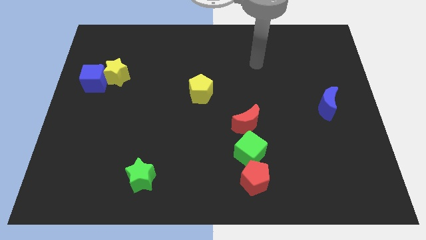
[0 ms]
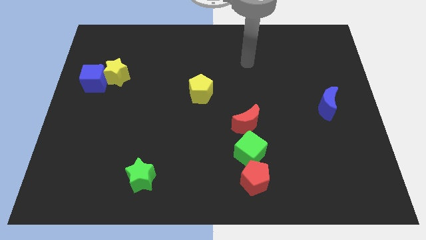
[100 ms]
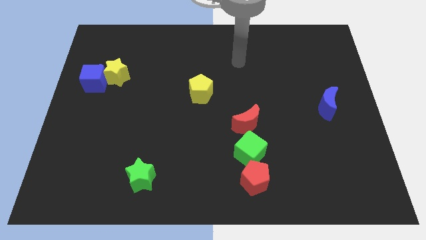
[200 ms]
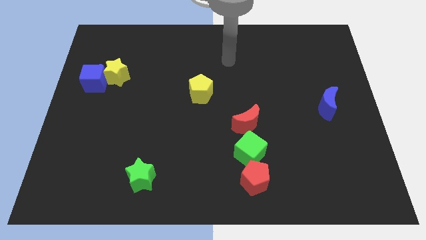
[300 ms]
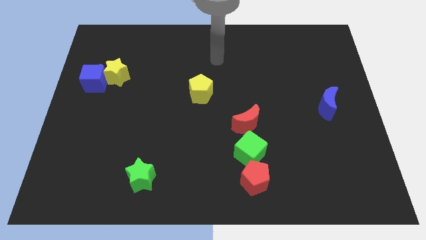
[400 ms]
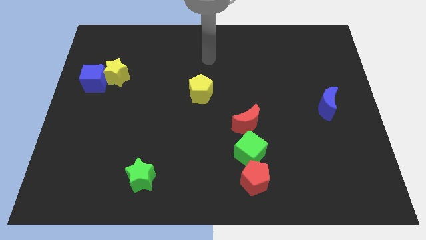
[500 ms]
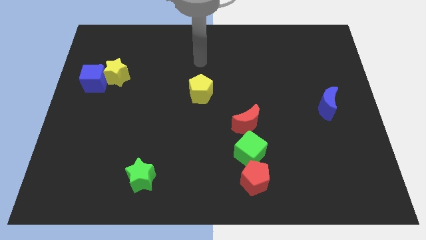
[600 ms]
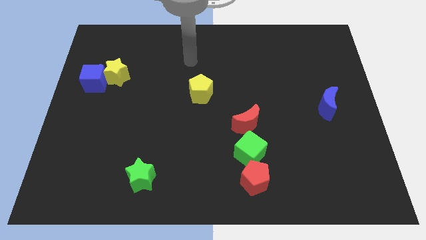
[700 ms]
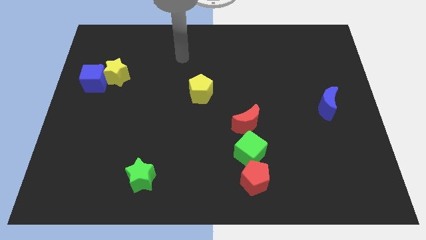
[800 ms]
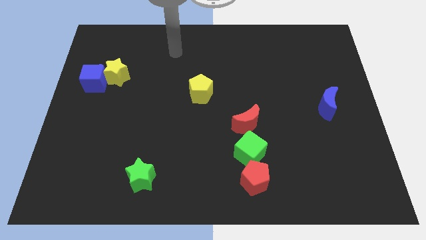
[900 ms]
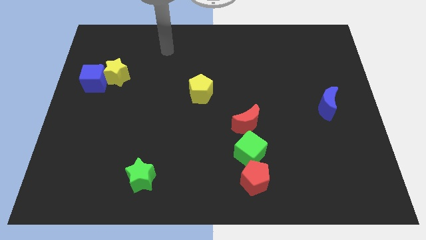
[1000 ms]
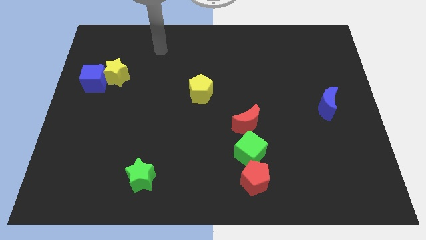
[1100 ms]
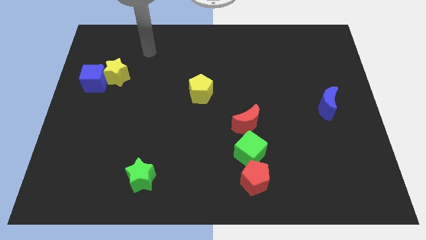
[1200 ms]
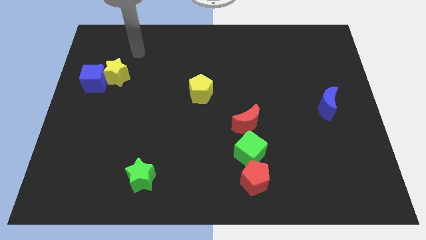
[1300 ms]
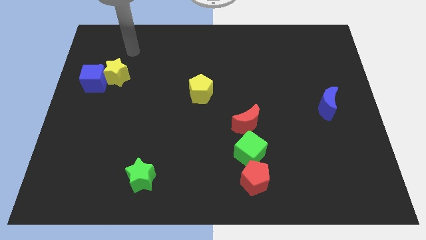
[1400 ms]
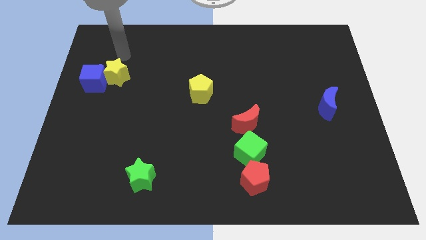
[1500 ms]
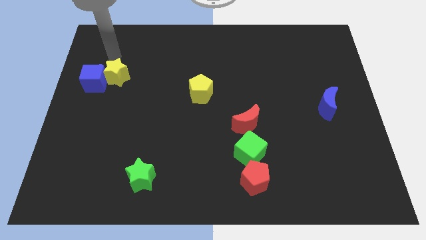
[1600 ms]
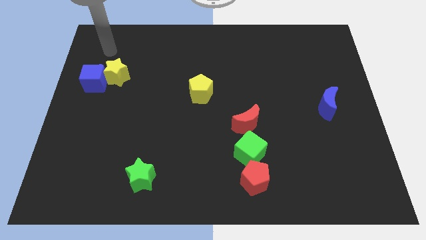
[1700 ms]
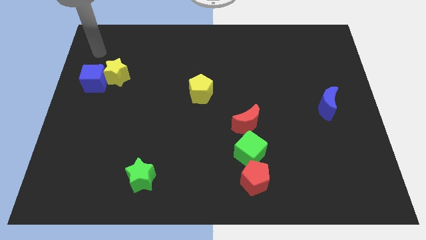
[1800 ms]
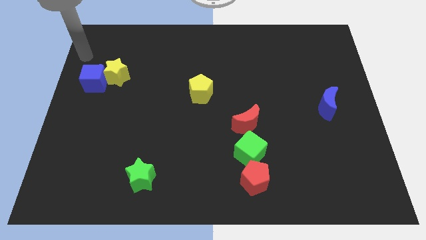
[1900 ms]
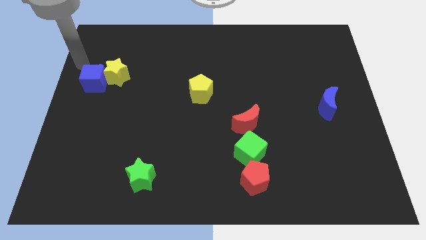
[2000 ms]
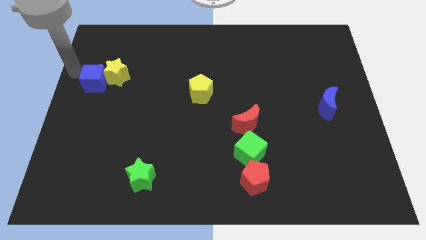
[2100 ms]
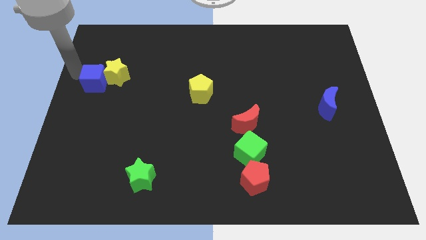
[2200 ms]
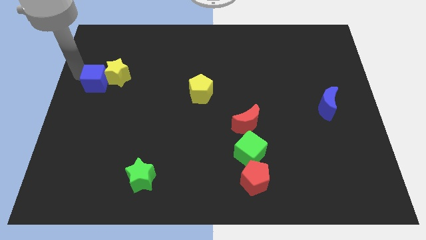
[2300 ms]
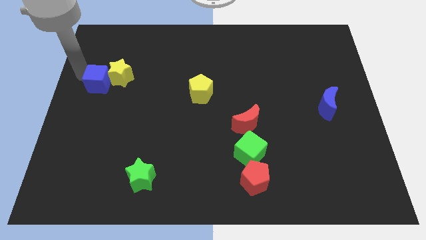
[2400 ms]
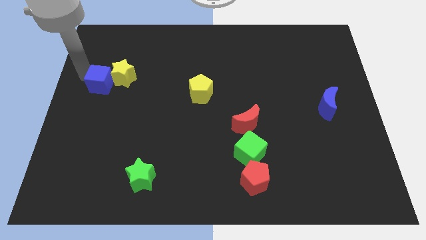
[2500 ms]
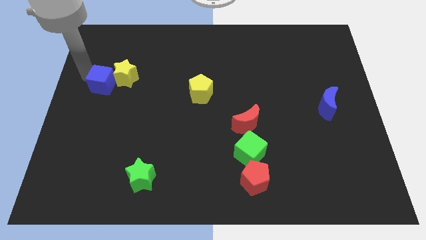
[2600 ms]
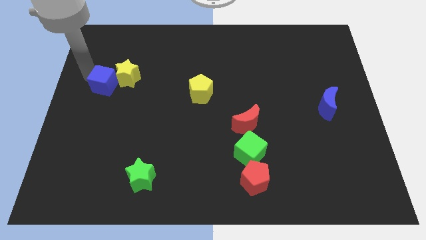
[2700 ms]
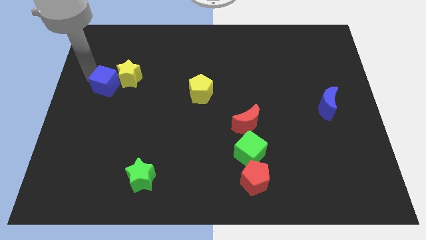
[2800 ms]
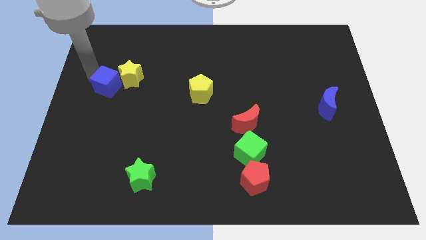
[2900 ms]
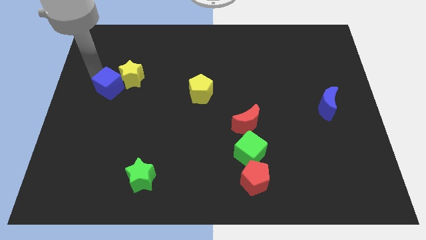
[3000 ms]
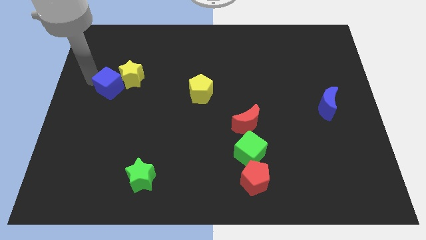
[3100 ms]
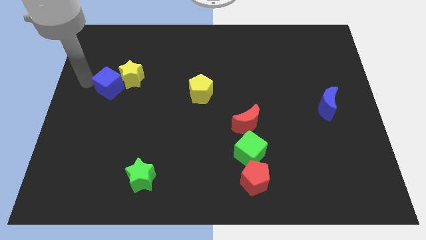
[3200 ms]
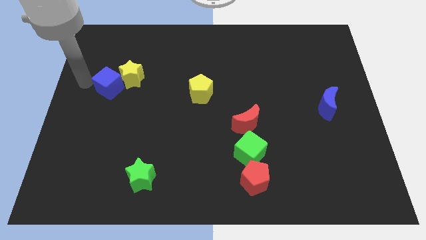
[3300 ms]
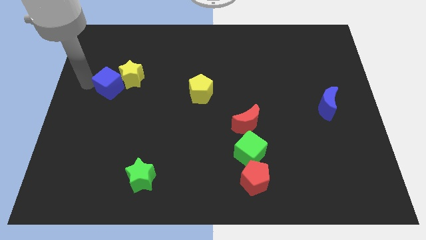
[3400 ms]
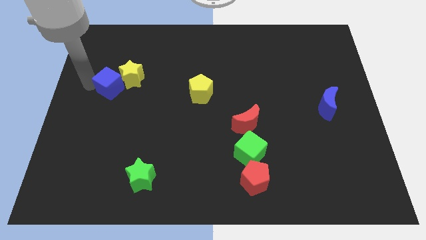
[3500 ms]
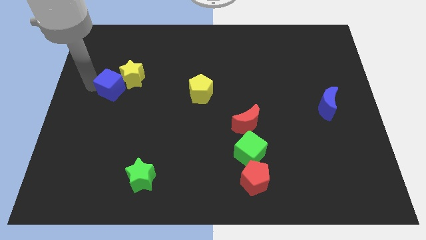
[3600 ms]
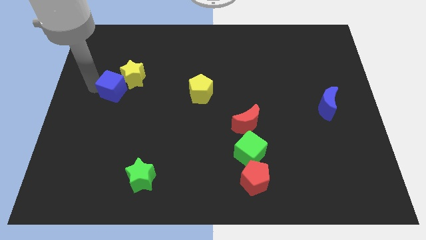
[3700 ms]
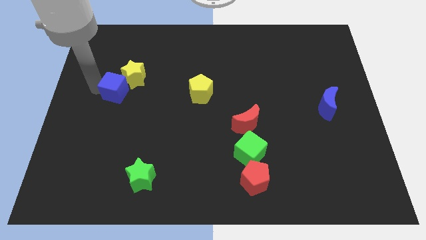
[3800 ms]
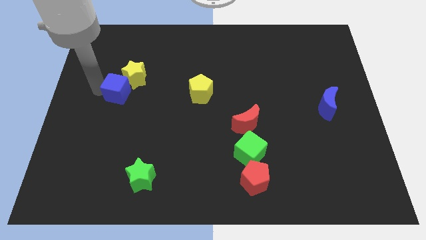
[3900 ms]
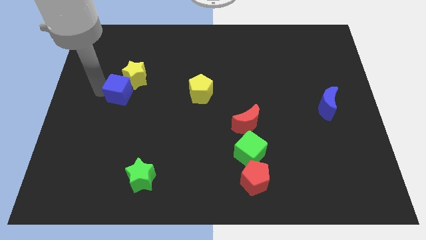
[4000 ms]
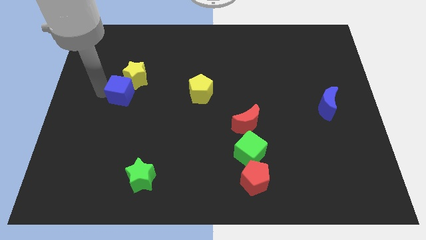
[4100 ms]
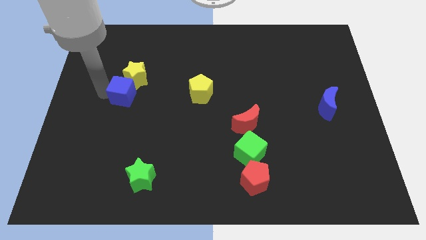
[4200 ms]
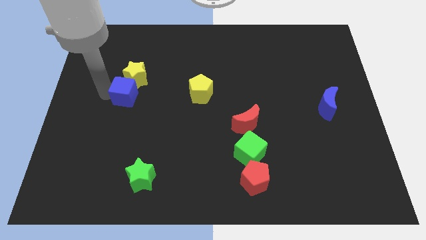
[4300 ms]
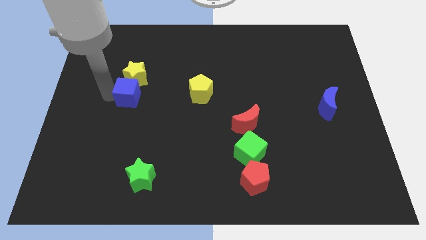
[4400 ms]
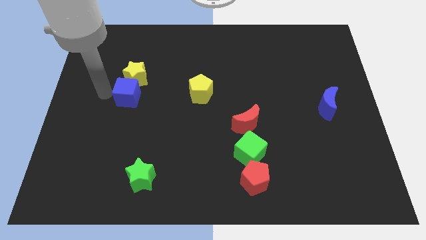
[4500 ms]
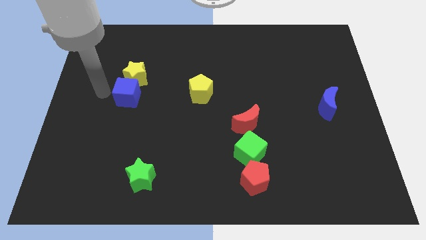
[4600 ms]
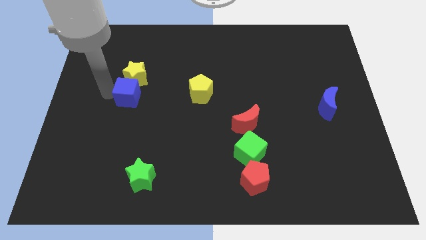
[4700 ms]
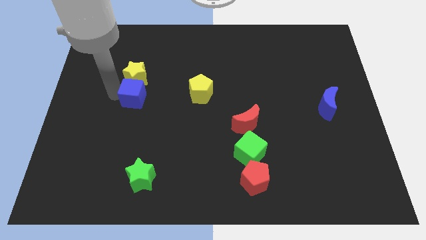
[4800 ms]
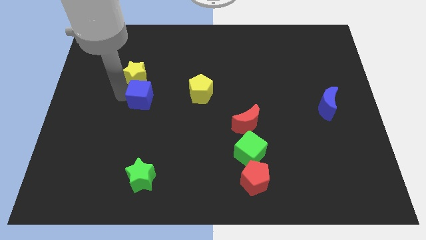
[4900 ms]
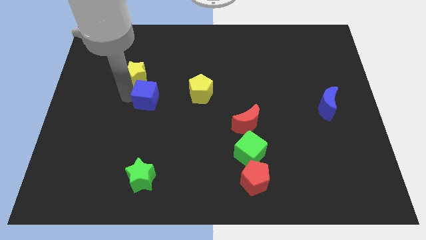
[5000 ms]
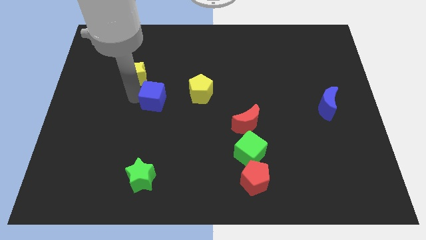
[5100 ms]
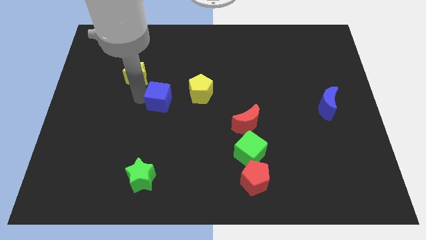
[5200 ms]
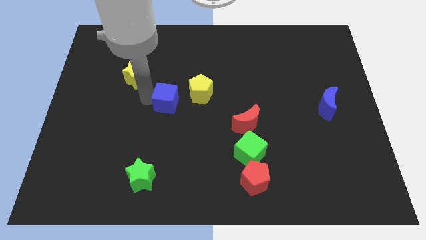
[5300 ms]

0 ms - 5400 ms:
move the blue cube to the middle of the board

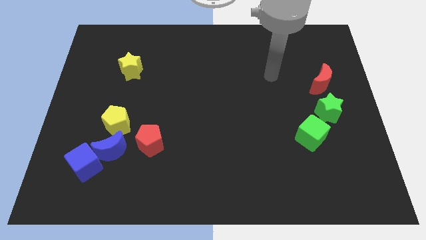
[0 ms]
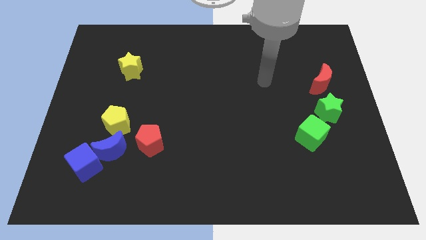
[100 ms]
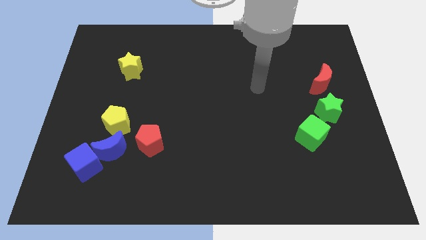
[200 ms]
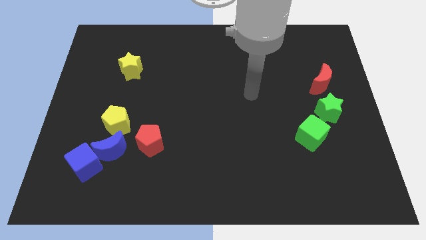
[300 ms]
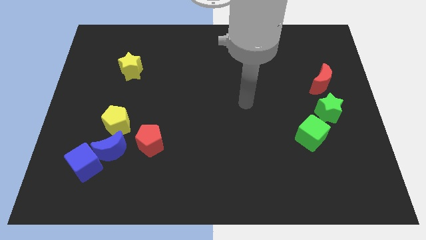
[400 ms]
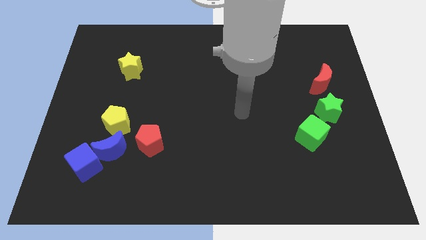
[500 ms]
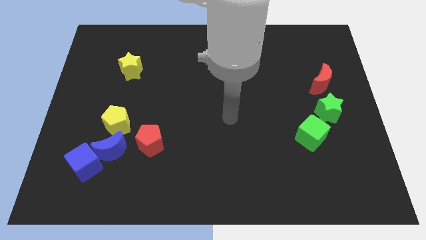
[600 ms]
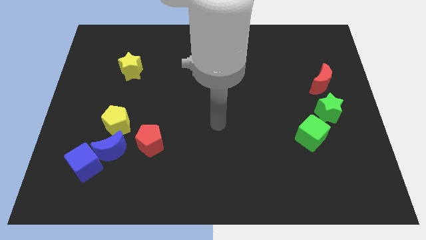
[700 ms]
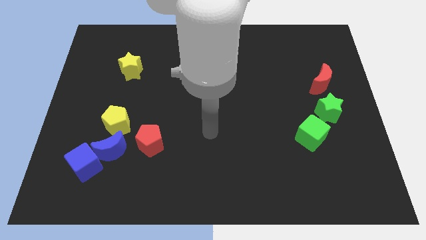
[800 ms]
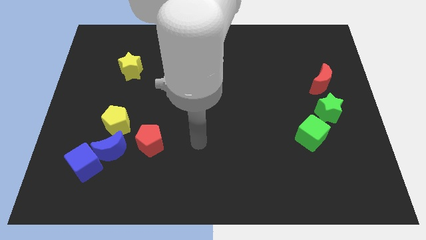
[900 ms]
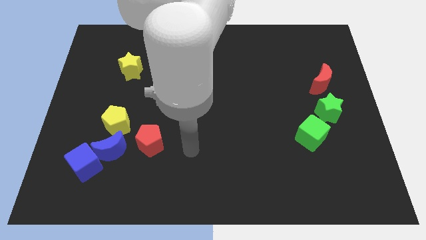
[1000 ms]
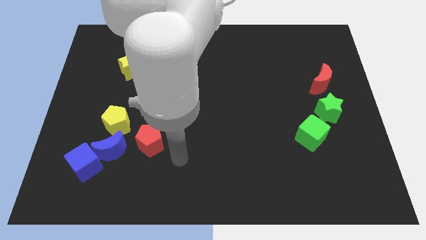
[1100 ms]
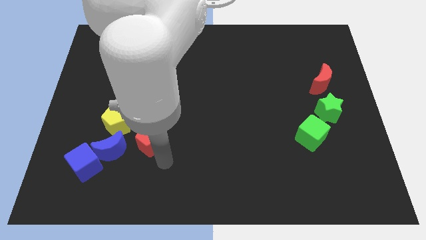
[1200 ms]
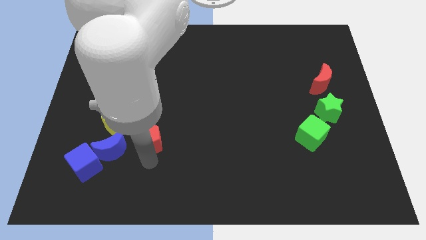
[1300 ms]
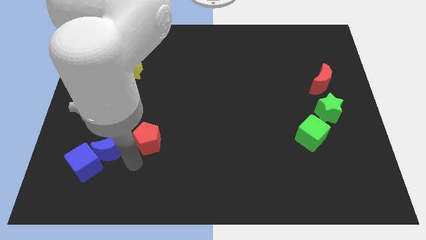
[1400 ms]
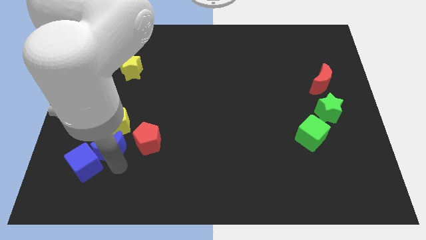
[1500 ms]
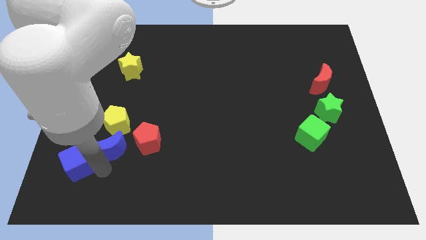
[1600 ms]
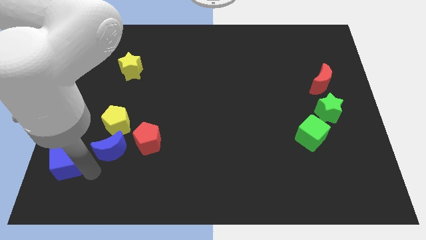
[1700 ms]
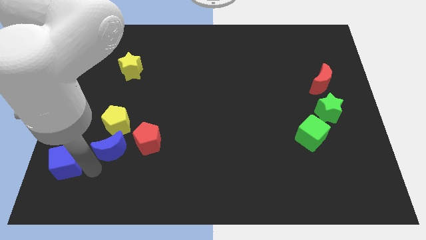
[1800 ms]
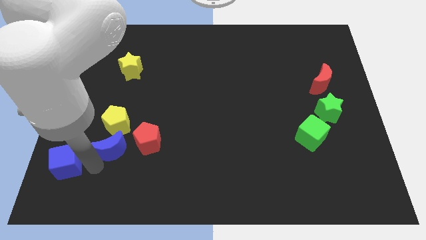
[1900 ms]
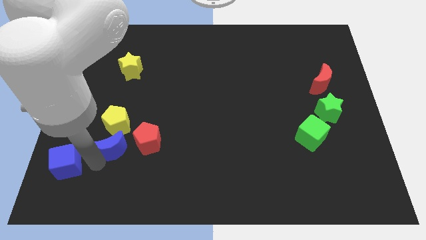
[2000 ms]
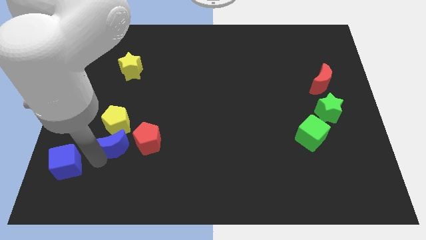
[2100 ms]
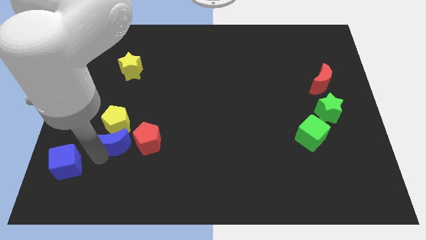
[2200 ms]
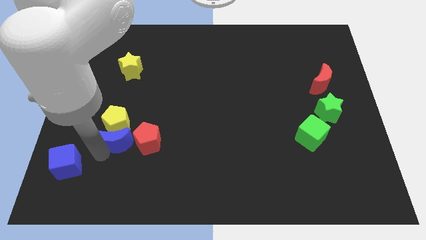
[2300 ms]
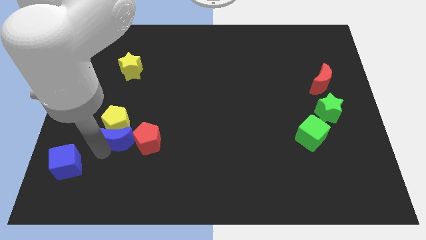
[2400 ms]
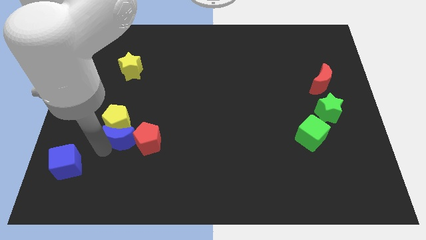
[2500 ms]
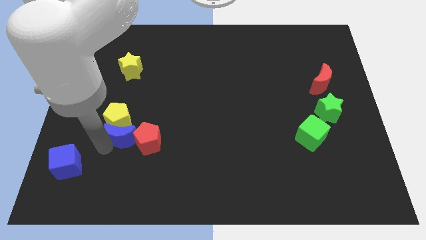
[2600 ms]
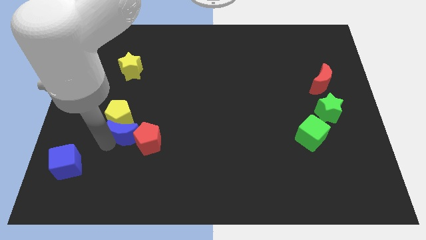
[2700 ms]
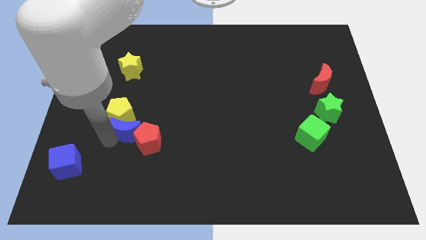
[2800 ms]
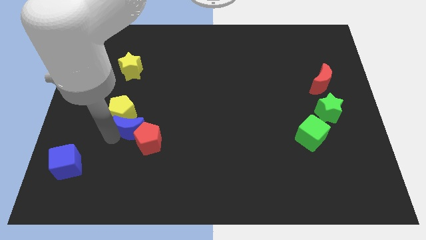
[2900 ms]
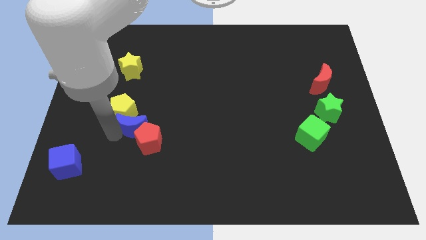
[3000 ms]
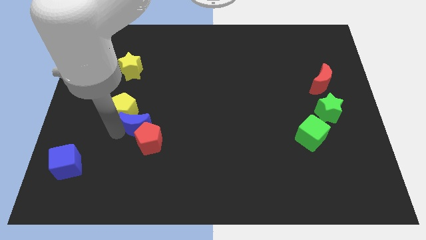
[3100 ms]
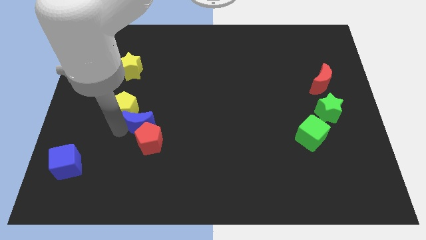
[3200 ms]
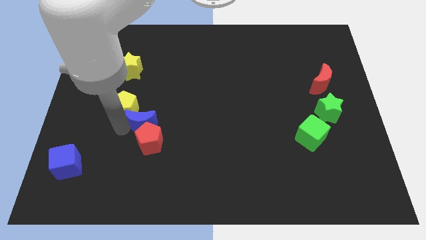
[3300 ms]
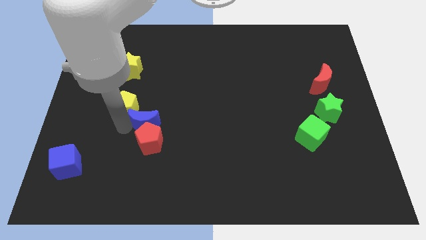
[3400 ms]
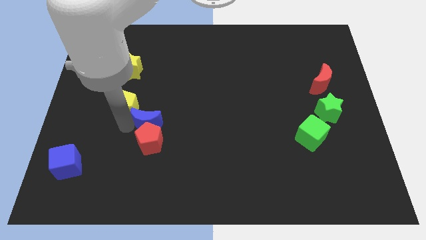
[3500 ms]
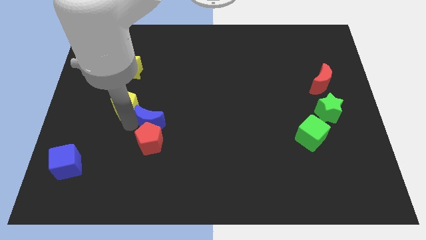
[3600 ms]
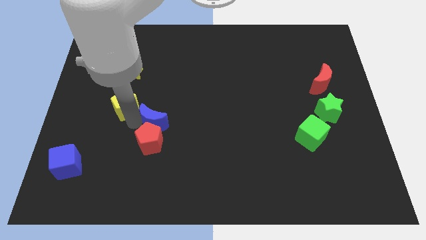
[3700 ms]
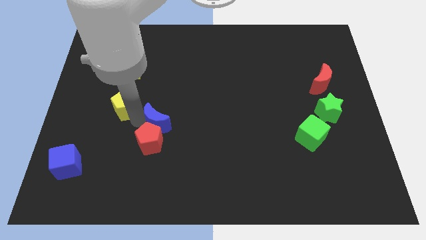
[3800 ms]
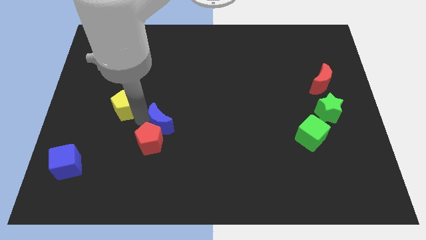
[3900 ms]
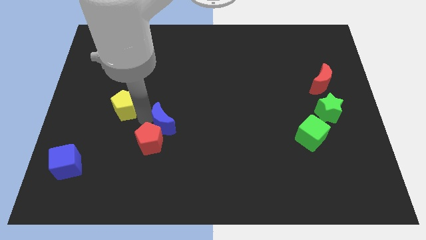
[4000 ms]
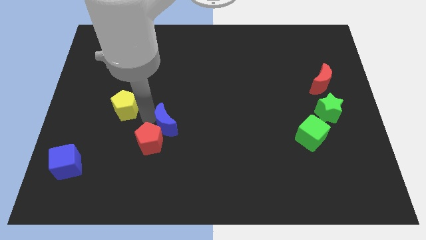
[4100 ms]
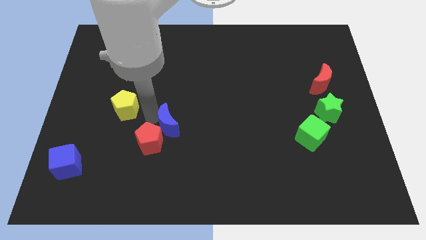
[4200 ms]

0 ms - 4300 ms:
move the blue moon to the middle of the board
